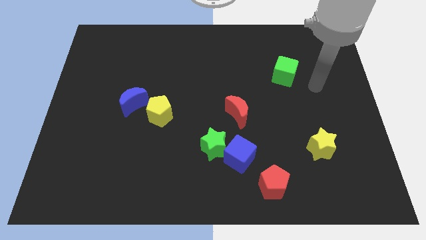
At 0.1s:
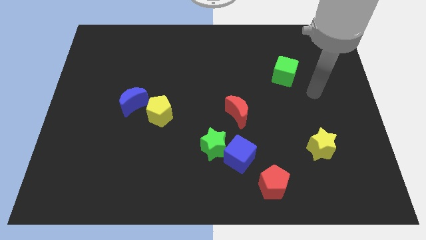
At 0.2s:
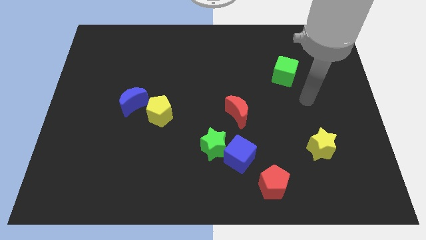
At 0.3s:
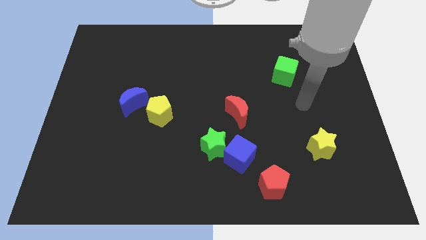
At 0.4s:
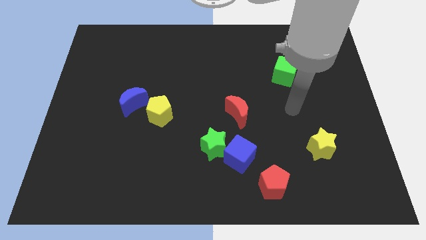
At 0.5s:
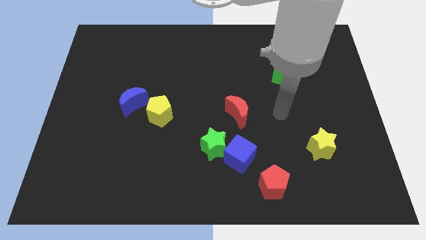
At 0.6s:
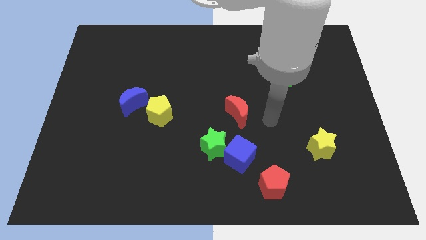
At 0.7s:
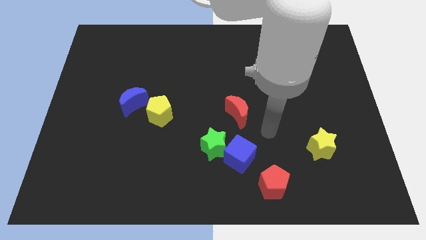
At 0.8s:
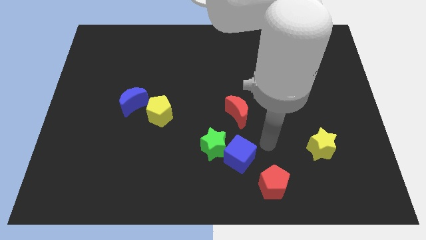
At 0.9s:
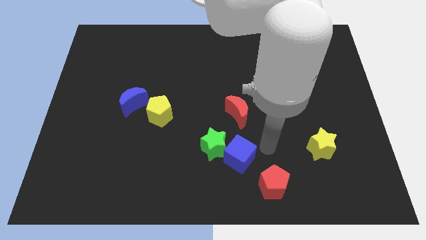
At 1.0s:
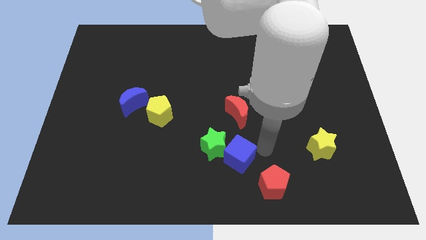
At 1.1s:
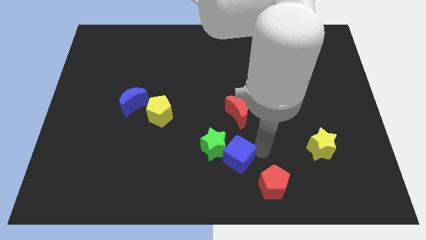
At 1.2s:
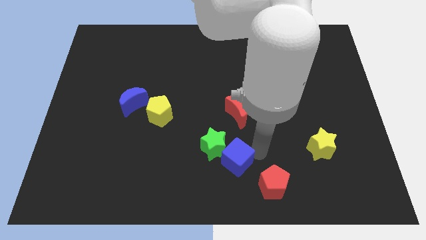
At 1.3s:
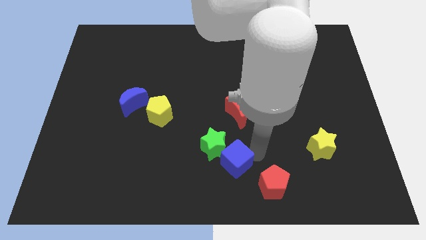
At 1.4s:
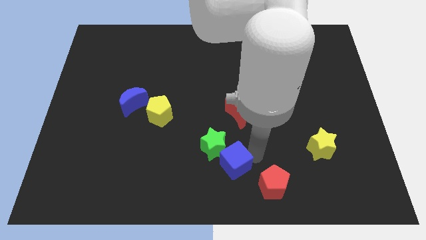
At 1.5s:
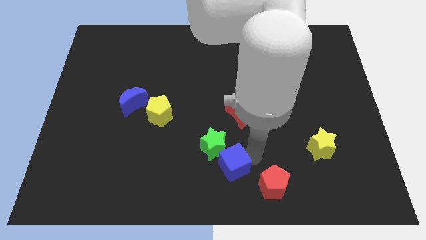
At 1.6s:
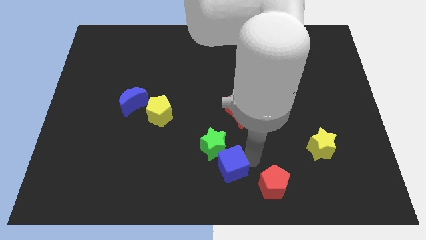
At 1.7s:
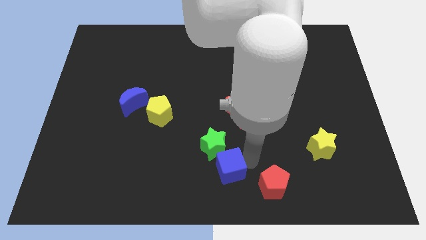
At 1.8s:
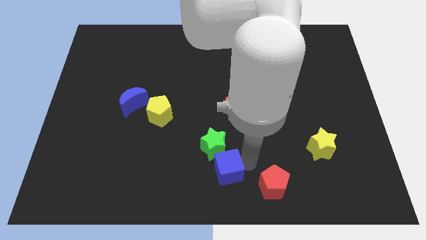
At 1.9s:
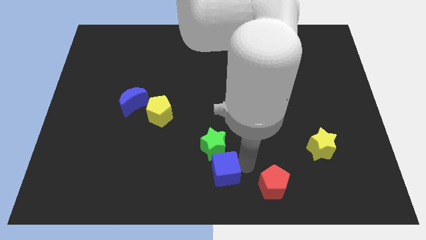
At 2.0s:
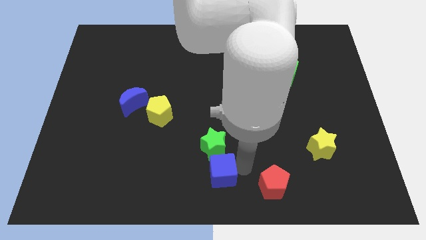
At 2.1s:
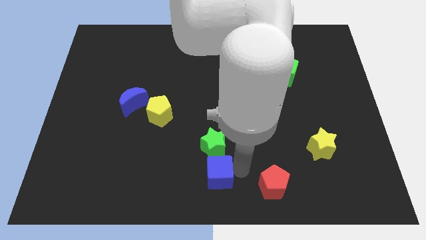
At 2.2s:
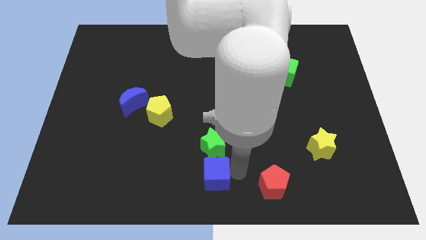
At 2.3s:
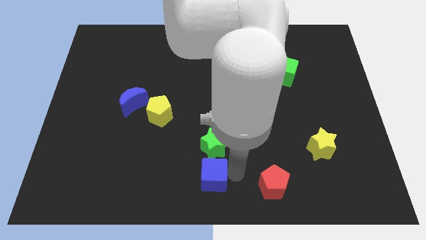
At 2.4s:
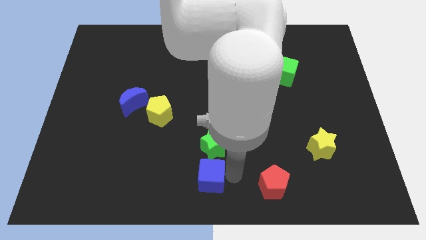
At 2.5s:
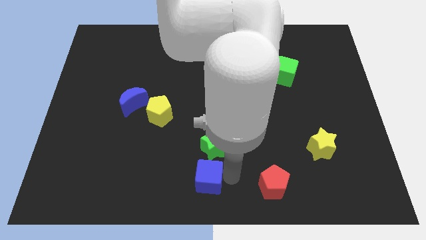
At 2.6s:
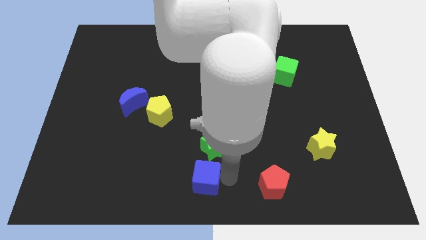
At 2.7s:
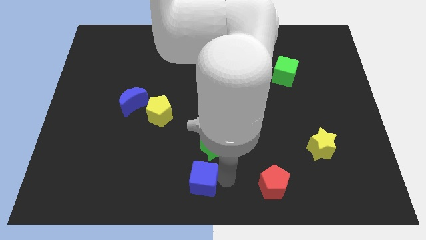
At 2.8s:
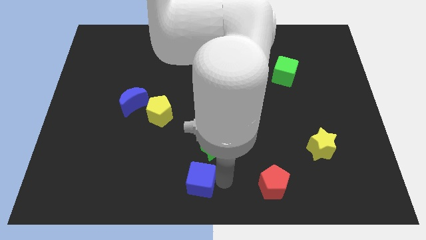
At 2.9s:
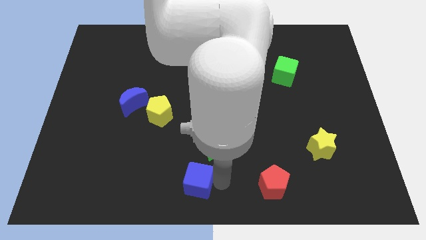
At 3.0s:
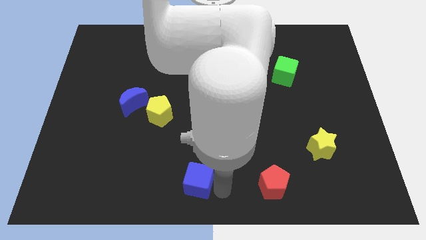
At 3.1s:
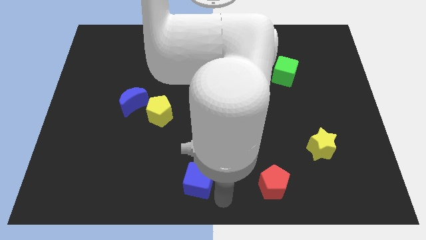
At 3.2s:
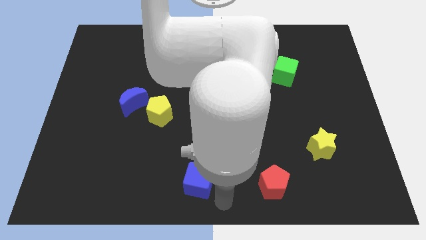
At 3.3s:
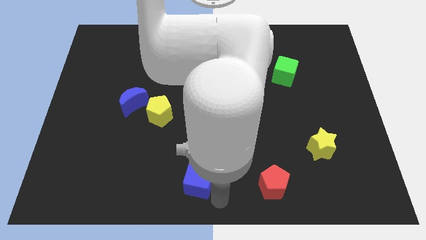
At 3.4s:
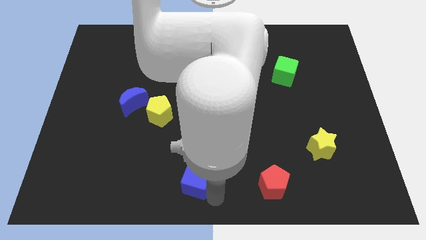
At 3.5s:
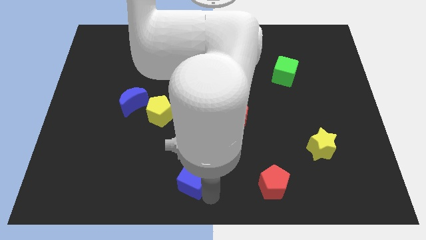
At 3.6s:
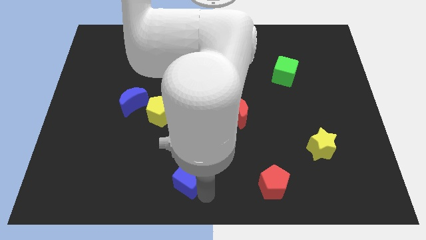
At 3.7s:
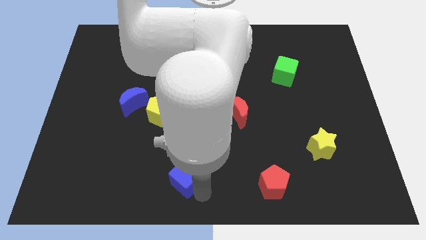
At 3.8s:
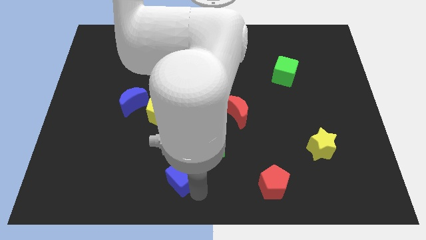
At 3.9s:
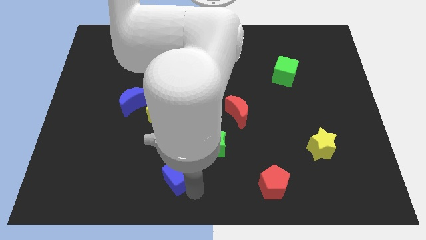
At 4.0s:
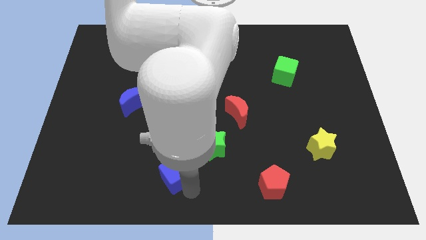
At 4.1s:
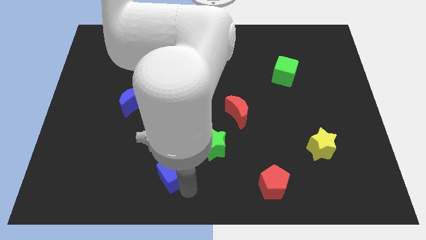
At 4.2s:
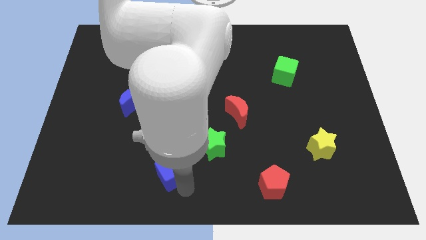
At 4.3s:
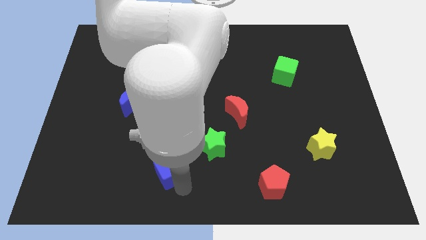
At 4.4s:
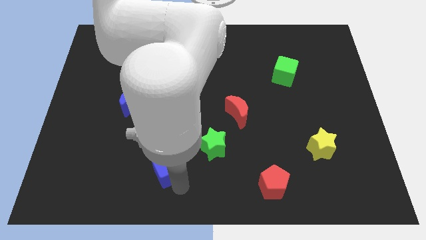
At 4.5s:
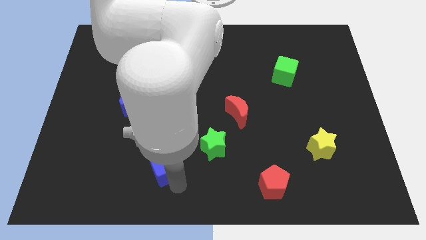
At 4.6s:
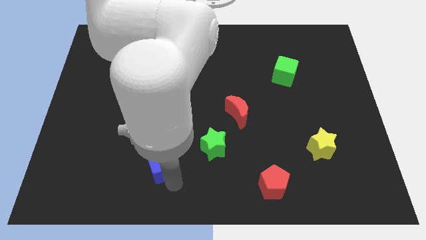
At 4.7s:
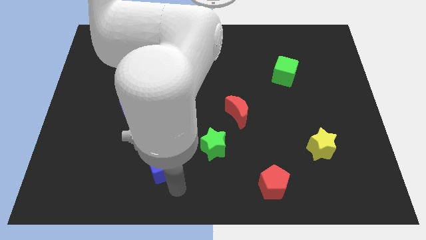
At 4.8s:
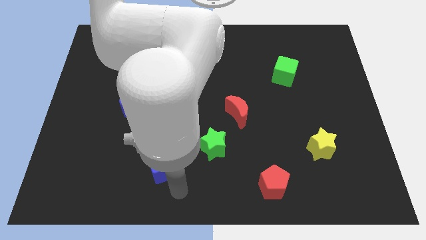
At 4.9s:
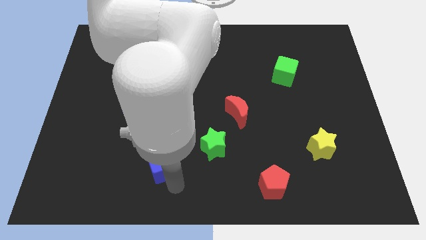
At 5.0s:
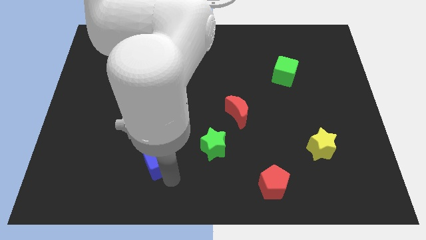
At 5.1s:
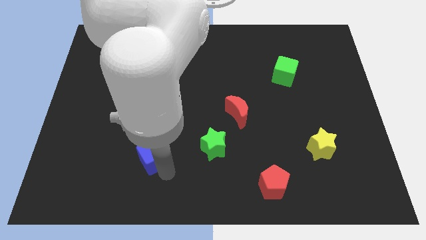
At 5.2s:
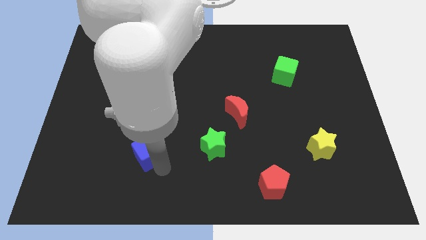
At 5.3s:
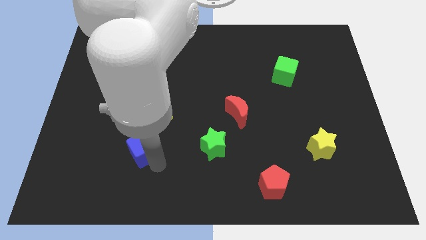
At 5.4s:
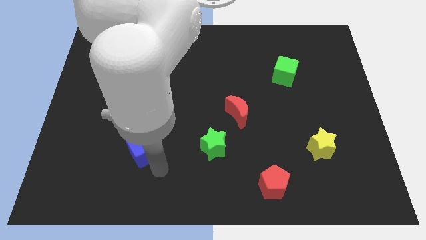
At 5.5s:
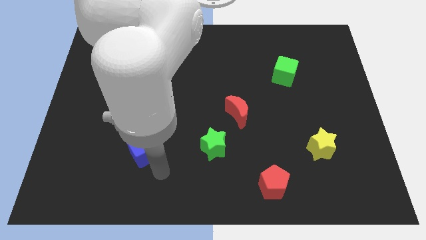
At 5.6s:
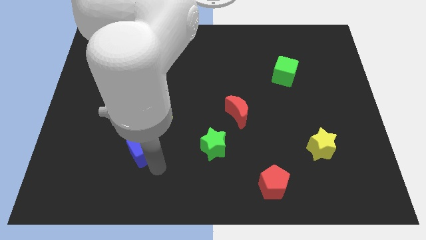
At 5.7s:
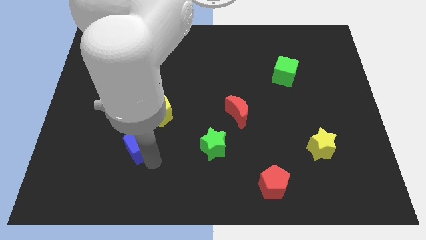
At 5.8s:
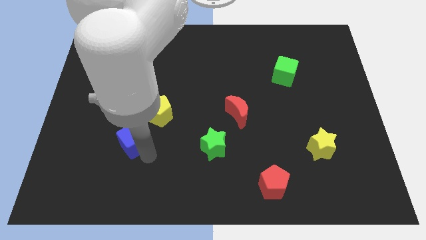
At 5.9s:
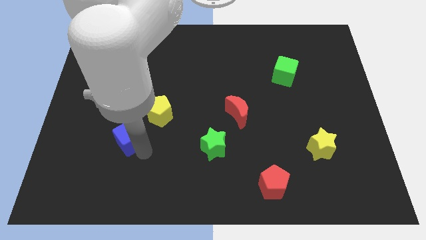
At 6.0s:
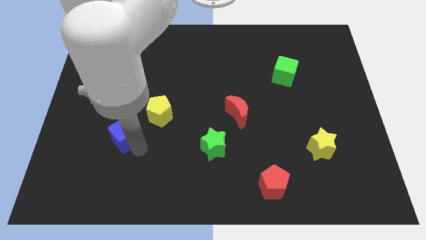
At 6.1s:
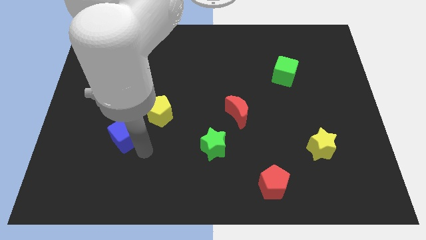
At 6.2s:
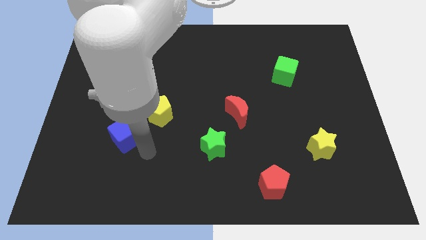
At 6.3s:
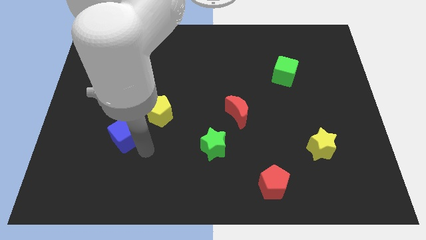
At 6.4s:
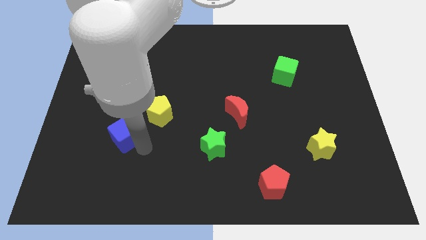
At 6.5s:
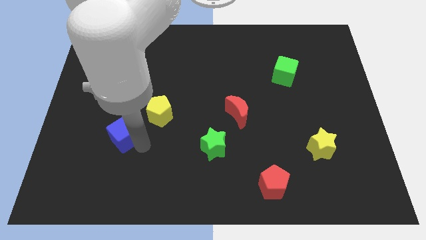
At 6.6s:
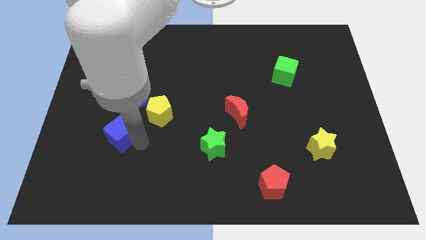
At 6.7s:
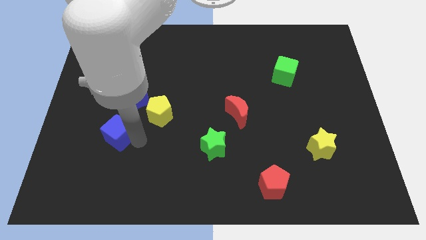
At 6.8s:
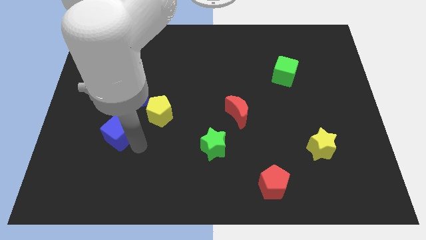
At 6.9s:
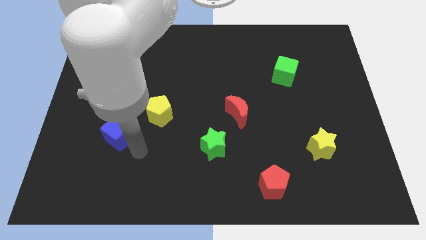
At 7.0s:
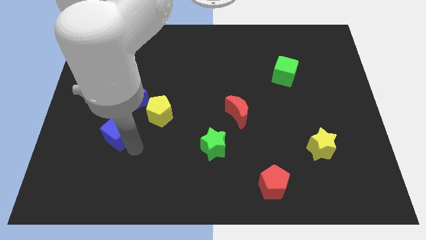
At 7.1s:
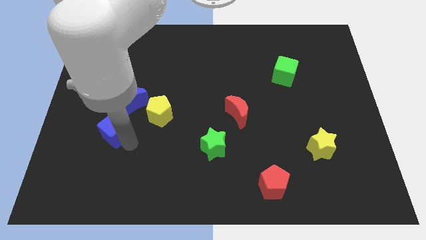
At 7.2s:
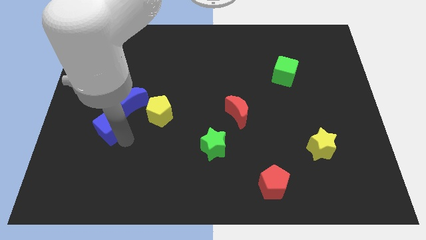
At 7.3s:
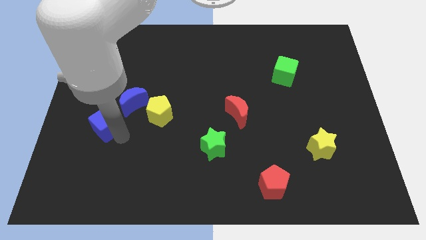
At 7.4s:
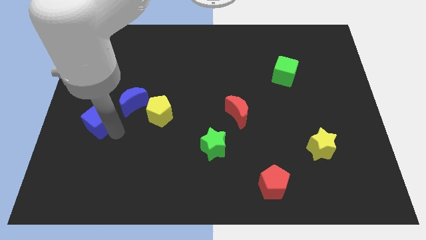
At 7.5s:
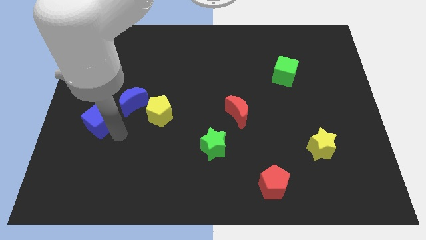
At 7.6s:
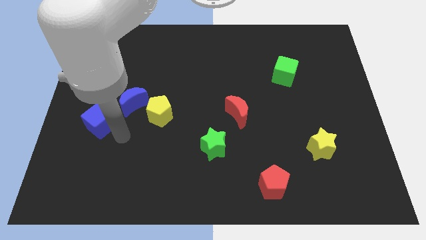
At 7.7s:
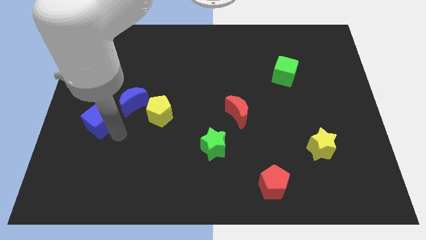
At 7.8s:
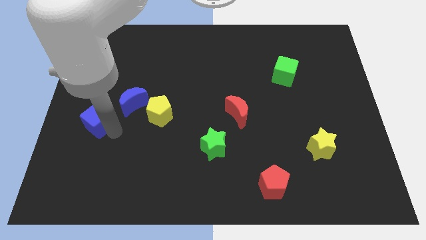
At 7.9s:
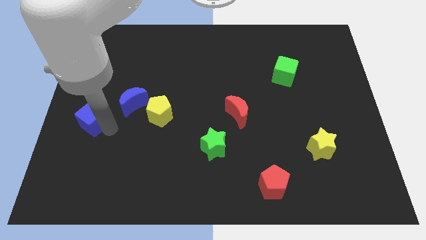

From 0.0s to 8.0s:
put the blue cube to the center left
